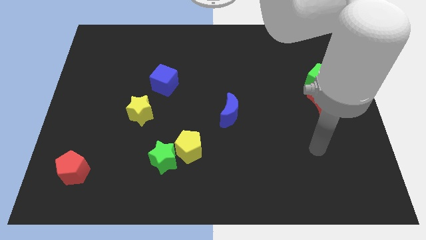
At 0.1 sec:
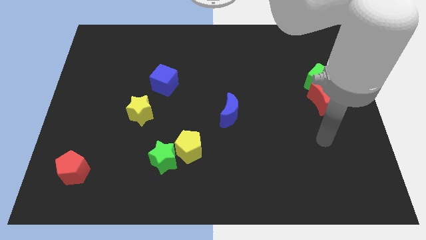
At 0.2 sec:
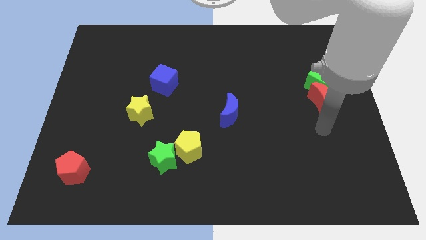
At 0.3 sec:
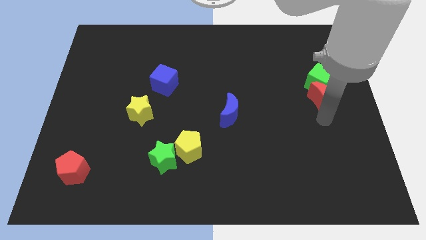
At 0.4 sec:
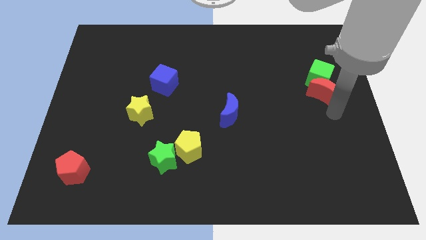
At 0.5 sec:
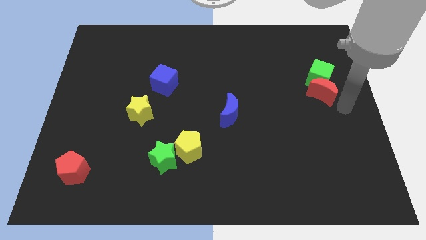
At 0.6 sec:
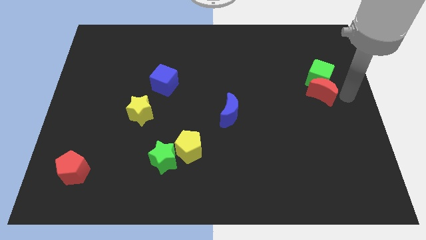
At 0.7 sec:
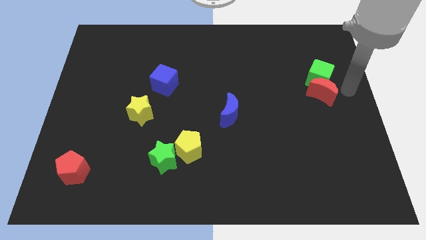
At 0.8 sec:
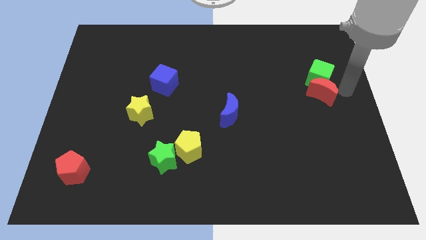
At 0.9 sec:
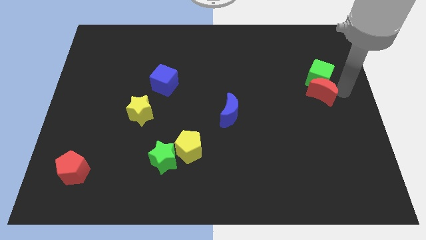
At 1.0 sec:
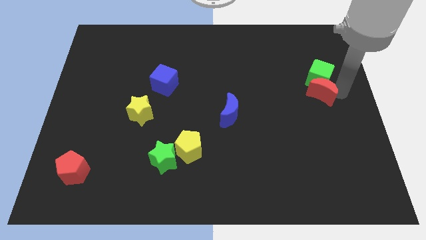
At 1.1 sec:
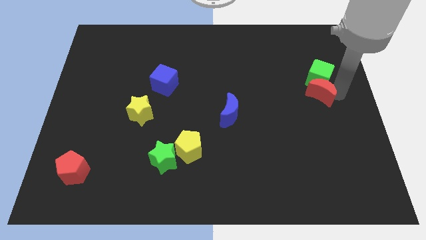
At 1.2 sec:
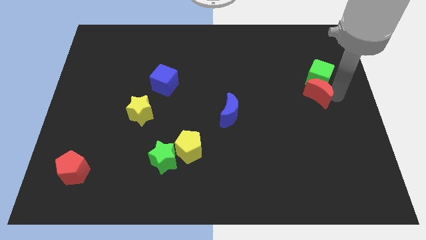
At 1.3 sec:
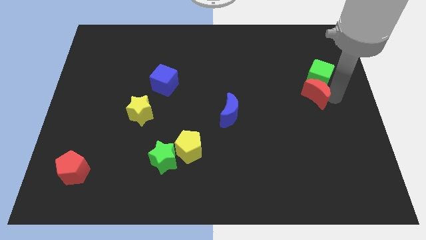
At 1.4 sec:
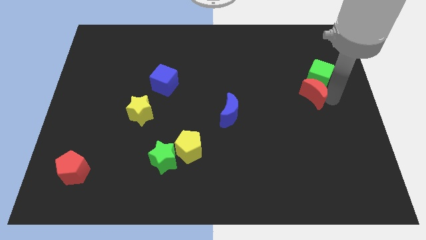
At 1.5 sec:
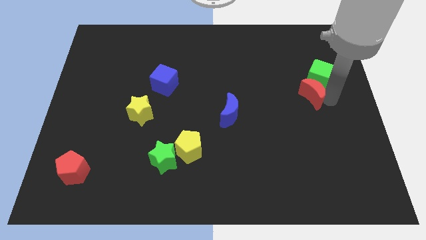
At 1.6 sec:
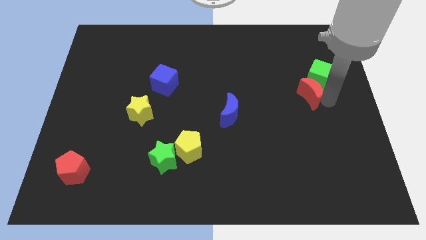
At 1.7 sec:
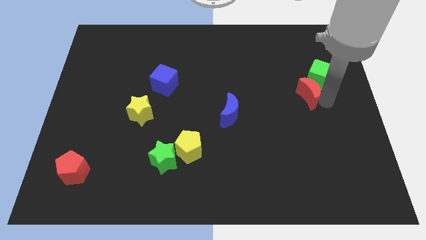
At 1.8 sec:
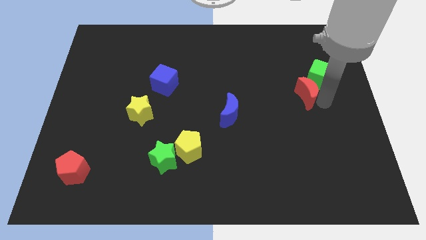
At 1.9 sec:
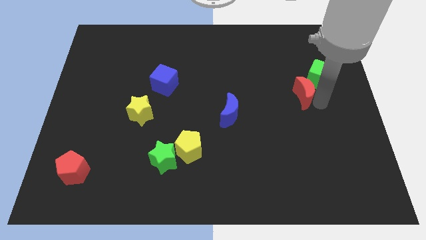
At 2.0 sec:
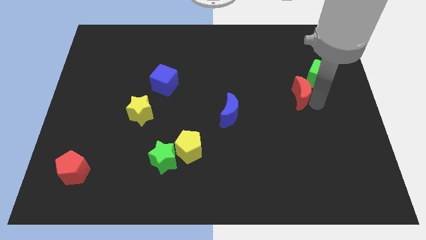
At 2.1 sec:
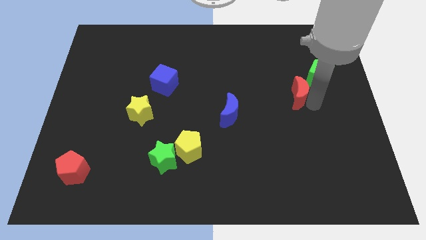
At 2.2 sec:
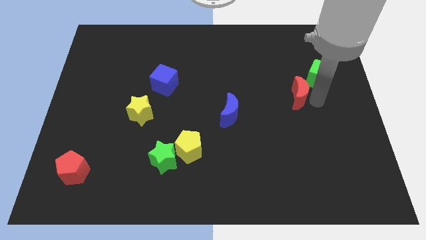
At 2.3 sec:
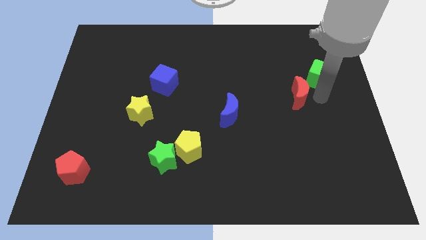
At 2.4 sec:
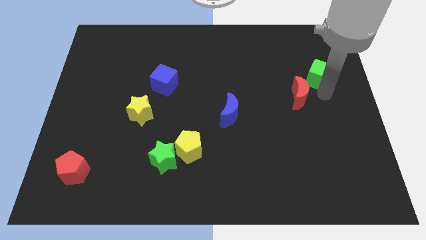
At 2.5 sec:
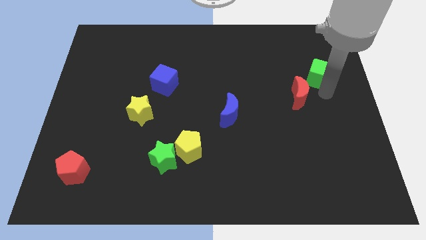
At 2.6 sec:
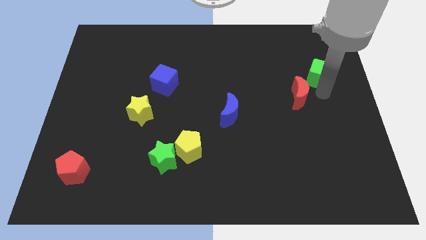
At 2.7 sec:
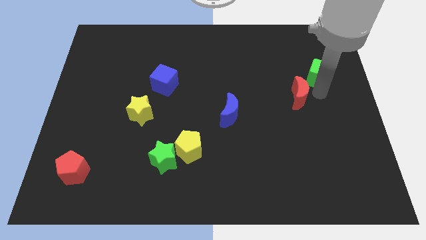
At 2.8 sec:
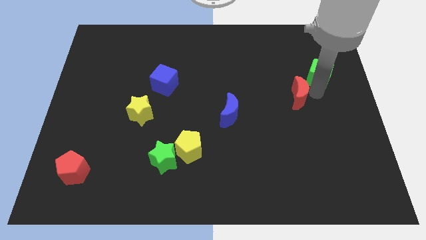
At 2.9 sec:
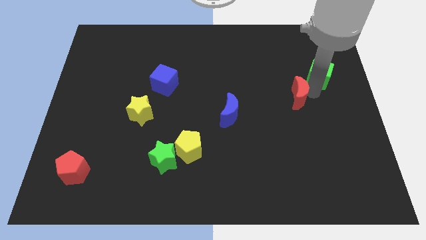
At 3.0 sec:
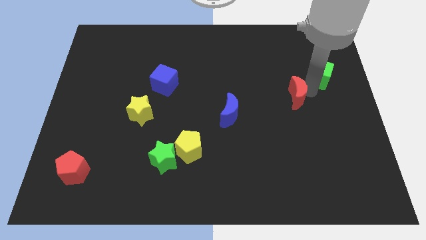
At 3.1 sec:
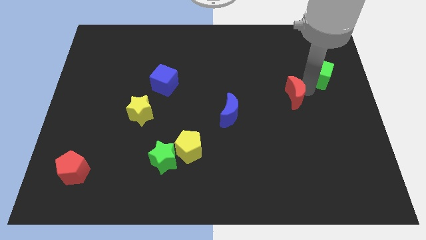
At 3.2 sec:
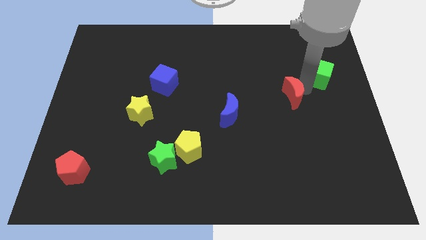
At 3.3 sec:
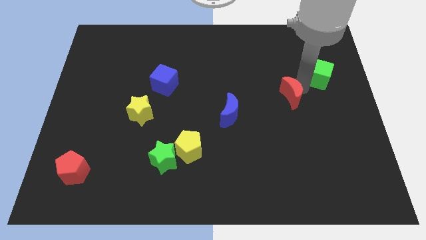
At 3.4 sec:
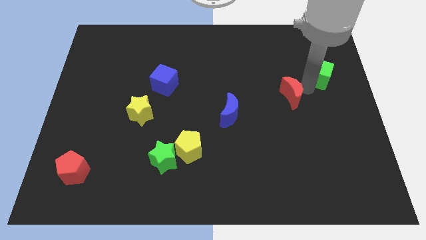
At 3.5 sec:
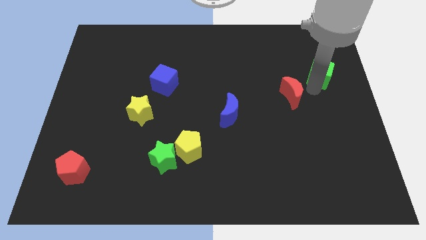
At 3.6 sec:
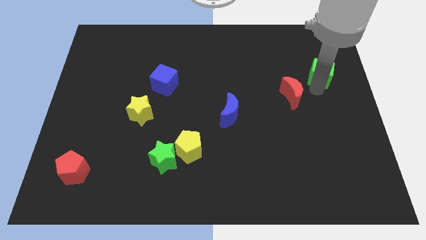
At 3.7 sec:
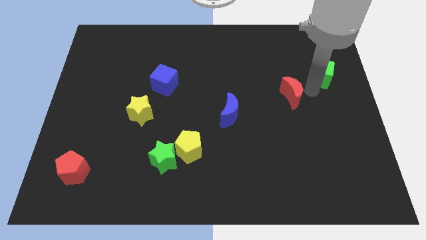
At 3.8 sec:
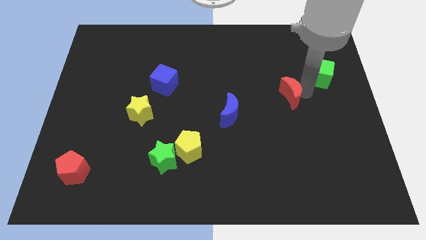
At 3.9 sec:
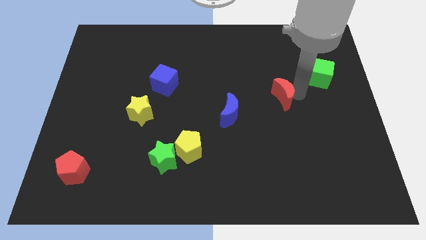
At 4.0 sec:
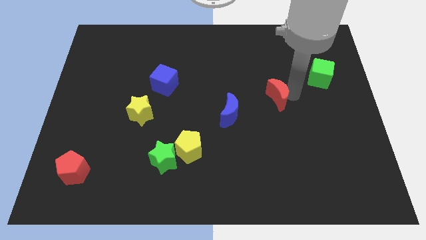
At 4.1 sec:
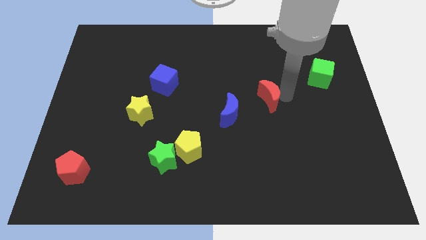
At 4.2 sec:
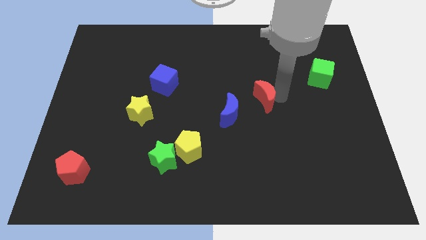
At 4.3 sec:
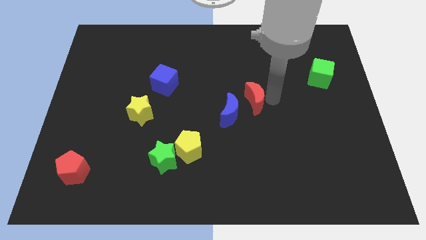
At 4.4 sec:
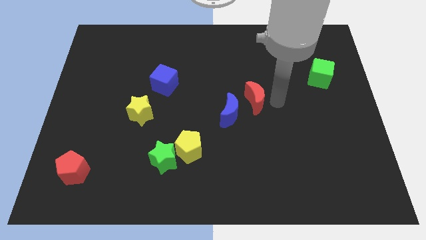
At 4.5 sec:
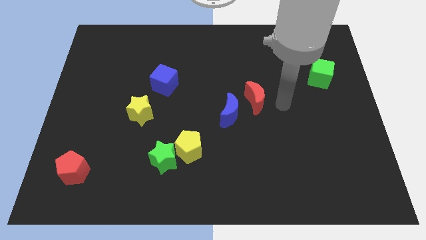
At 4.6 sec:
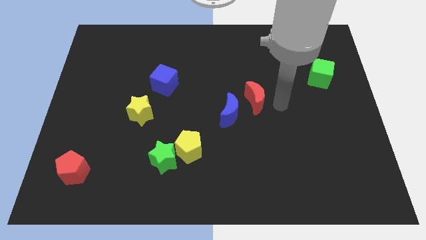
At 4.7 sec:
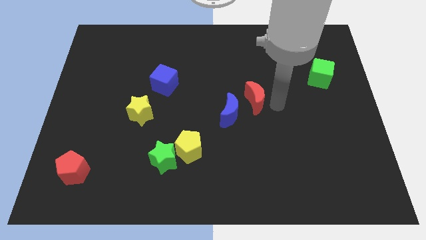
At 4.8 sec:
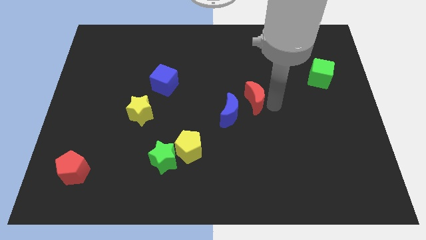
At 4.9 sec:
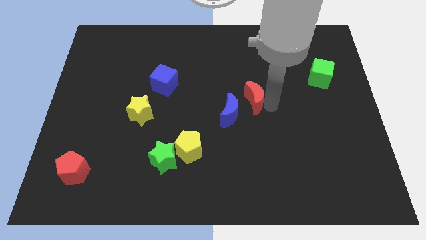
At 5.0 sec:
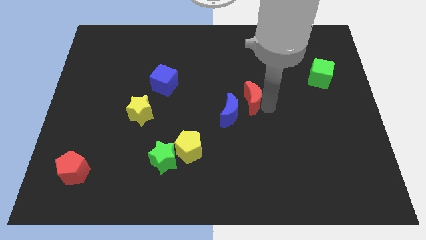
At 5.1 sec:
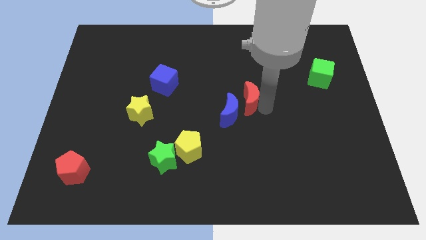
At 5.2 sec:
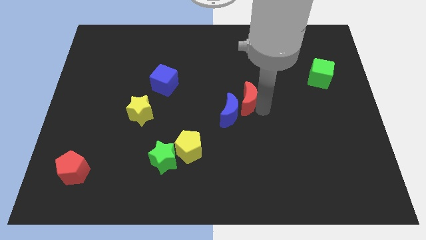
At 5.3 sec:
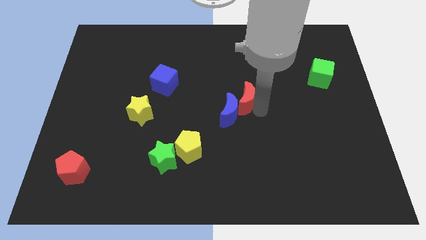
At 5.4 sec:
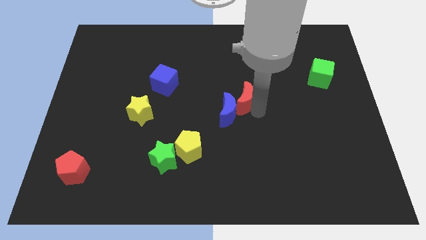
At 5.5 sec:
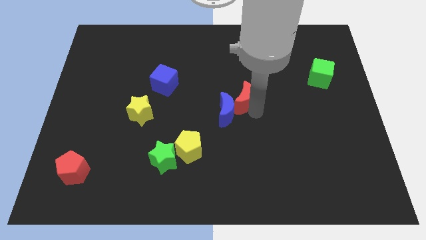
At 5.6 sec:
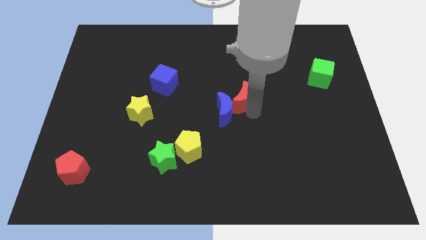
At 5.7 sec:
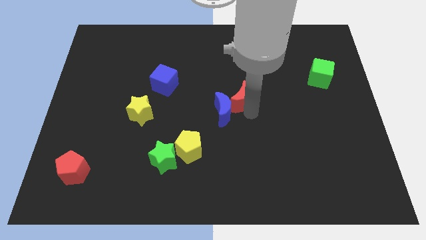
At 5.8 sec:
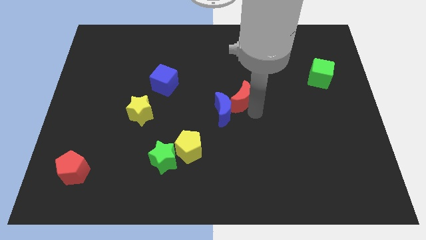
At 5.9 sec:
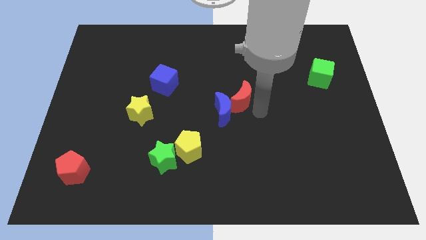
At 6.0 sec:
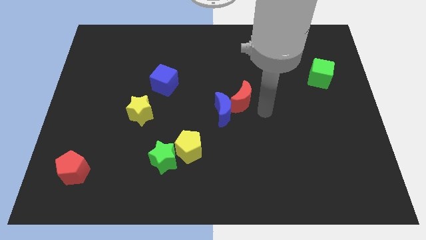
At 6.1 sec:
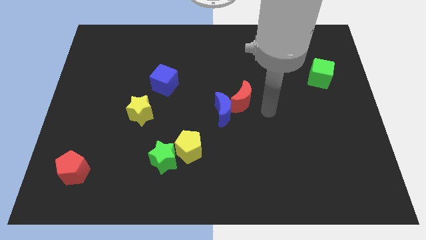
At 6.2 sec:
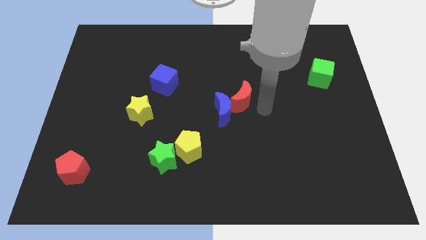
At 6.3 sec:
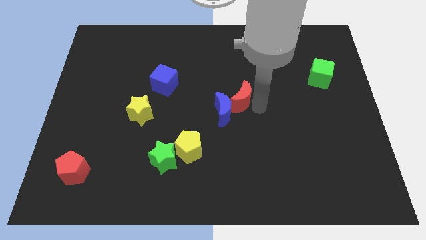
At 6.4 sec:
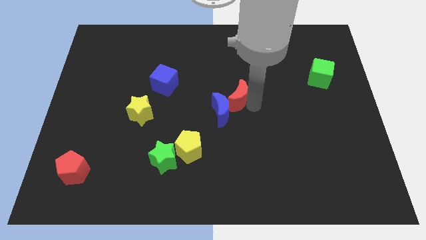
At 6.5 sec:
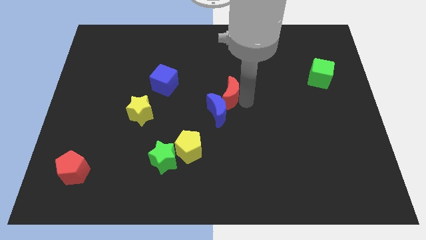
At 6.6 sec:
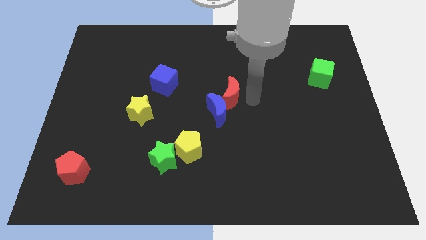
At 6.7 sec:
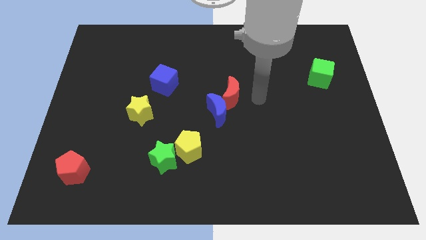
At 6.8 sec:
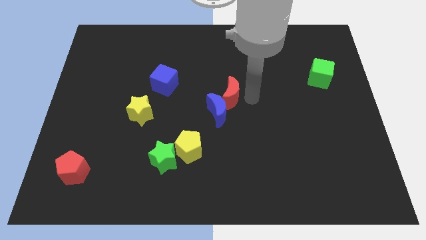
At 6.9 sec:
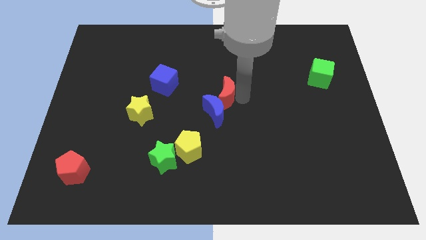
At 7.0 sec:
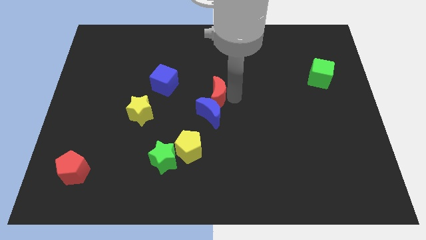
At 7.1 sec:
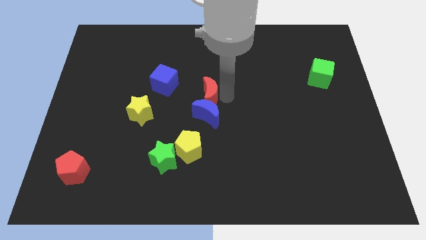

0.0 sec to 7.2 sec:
slide the red moon to the top left side of the blue moon
